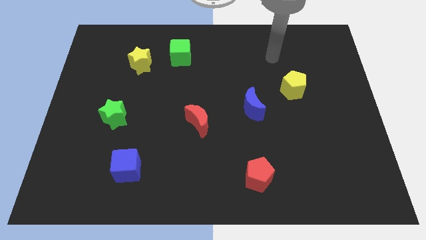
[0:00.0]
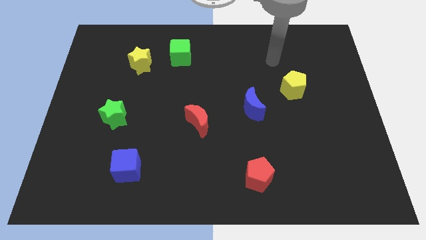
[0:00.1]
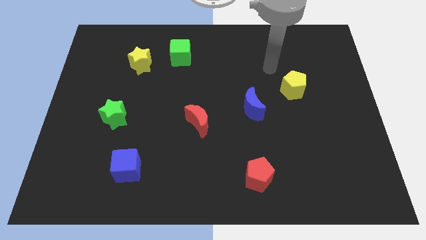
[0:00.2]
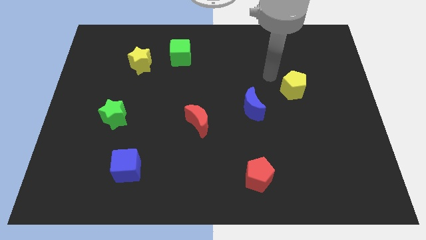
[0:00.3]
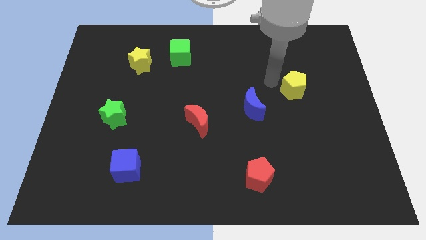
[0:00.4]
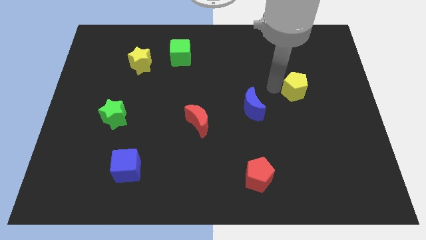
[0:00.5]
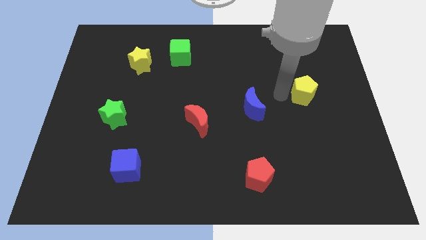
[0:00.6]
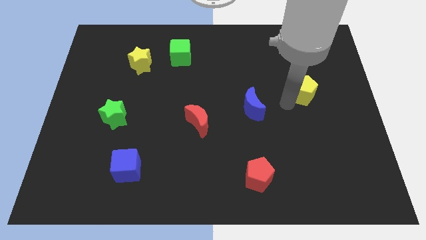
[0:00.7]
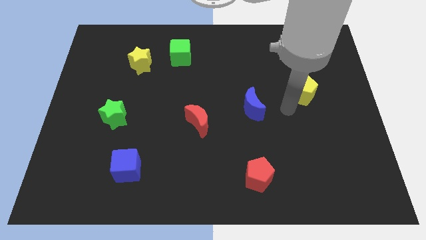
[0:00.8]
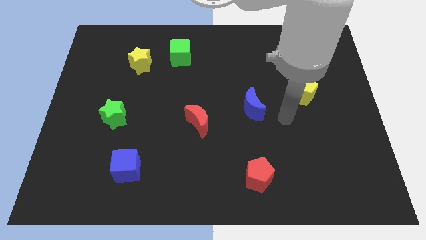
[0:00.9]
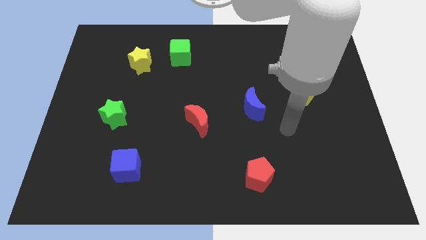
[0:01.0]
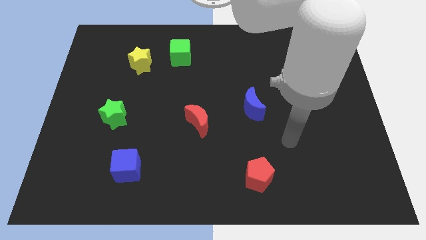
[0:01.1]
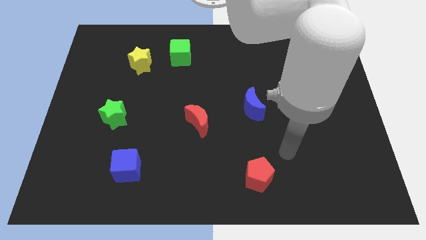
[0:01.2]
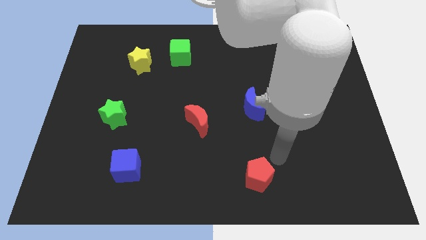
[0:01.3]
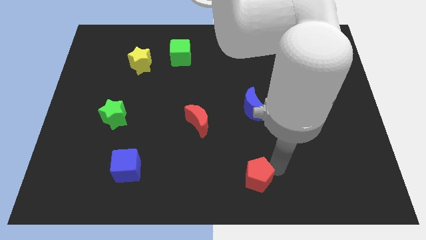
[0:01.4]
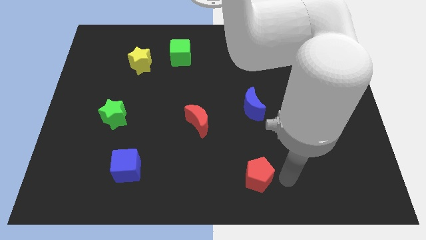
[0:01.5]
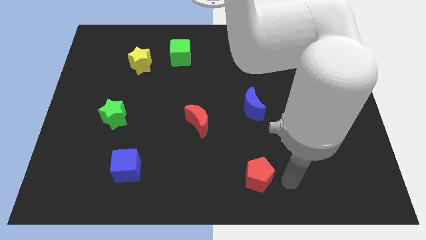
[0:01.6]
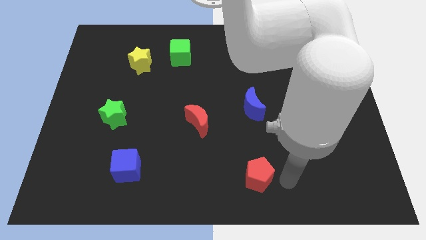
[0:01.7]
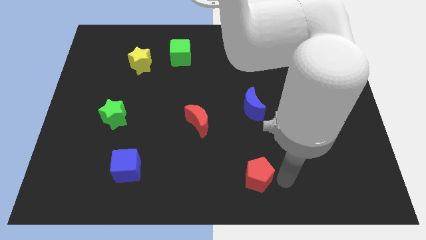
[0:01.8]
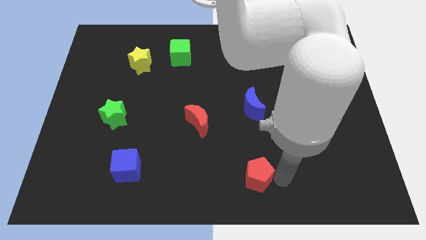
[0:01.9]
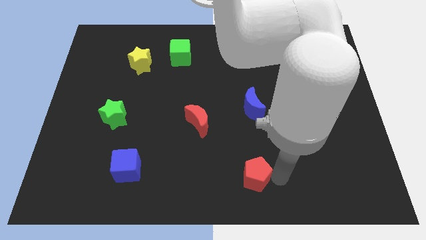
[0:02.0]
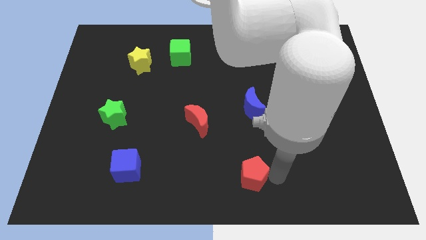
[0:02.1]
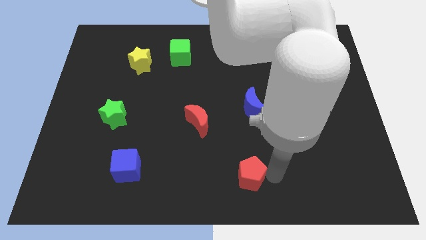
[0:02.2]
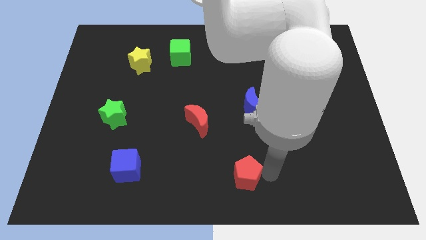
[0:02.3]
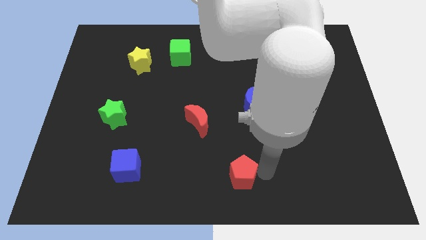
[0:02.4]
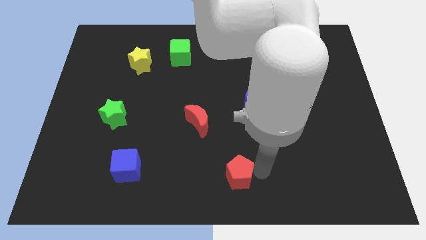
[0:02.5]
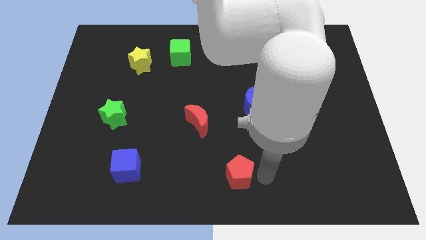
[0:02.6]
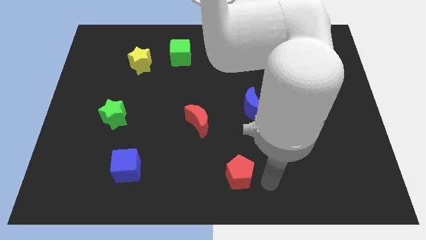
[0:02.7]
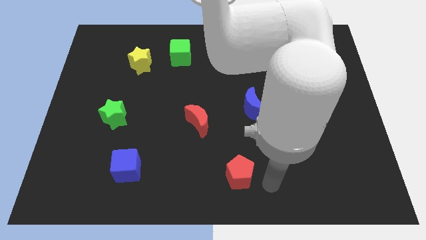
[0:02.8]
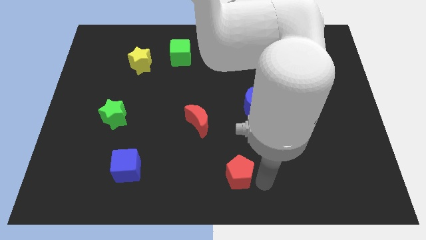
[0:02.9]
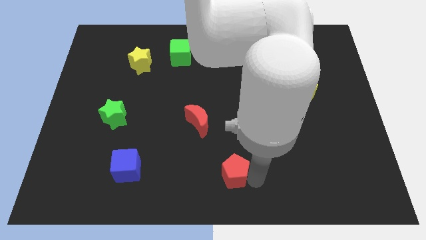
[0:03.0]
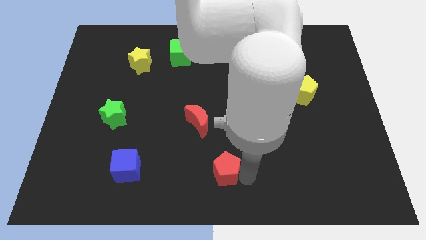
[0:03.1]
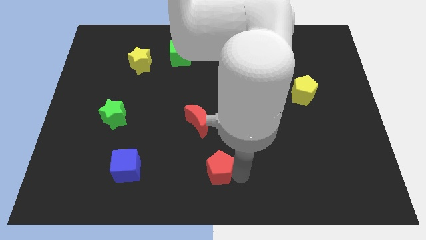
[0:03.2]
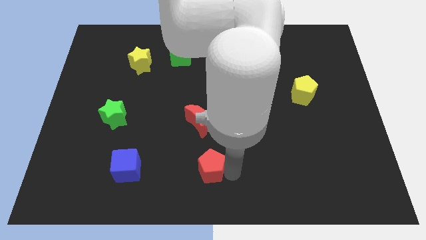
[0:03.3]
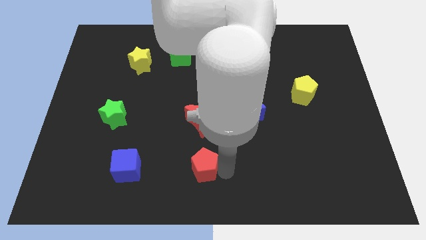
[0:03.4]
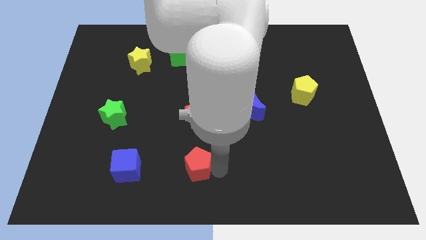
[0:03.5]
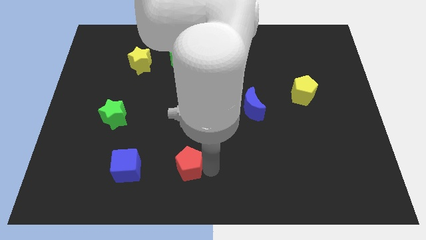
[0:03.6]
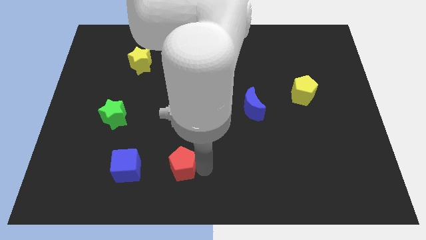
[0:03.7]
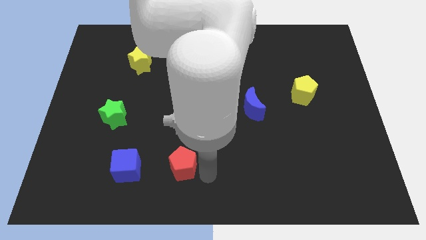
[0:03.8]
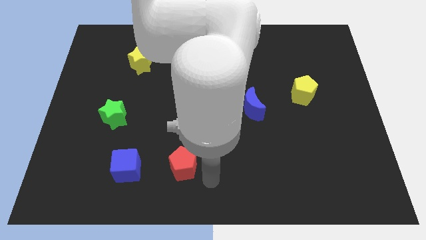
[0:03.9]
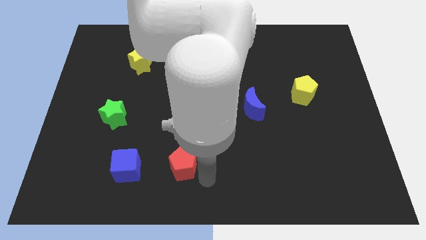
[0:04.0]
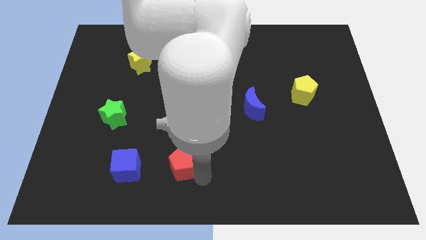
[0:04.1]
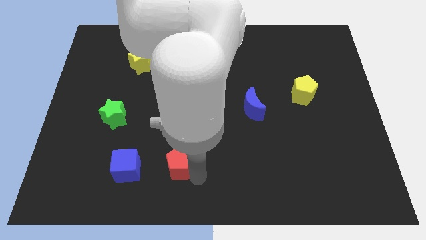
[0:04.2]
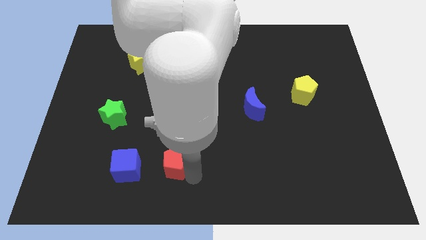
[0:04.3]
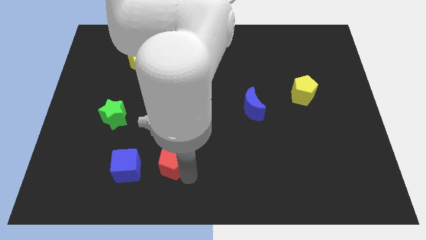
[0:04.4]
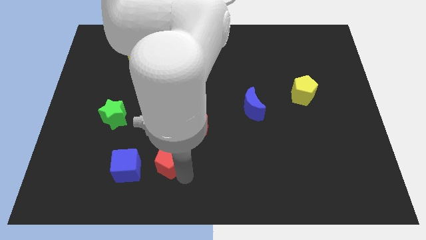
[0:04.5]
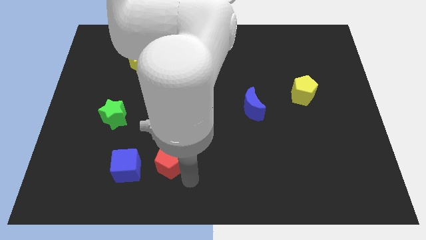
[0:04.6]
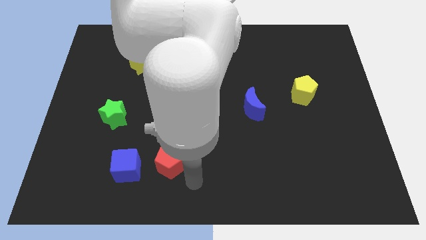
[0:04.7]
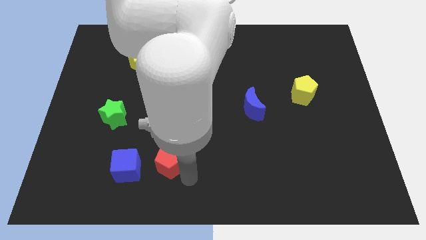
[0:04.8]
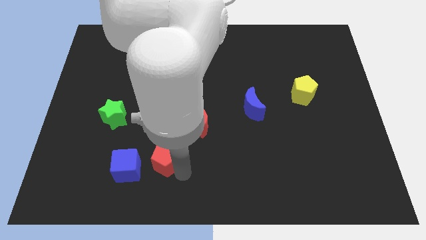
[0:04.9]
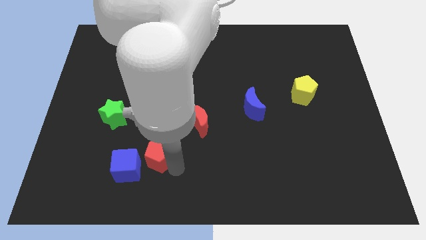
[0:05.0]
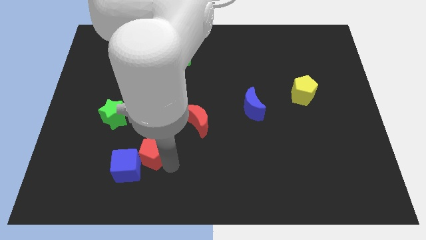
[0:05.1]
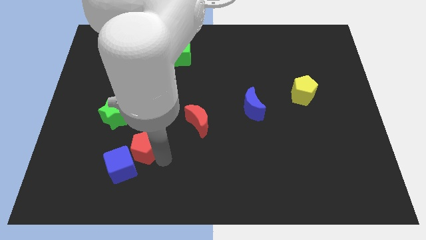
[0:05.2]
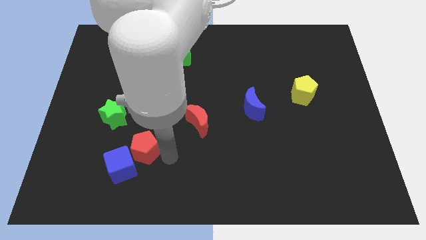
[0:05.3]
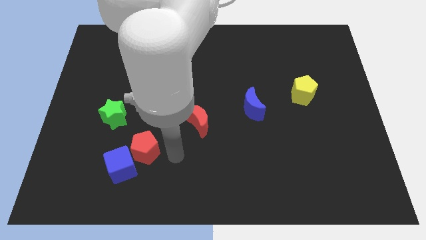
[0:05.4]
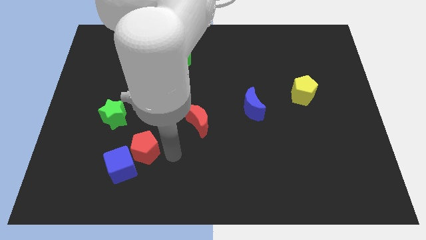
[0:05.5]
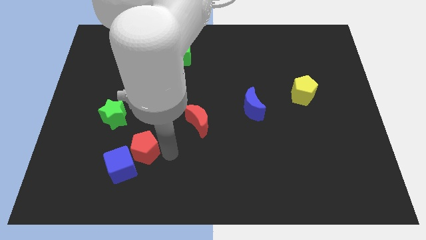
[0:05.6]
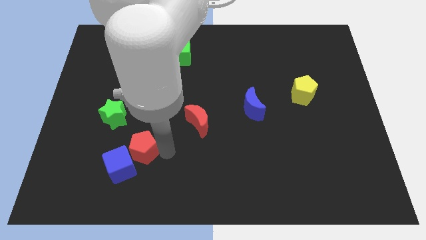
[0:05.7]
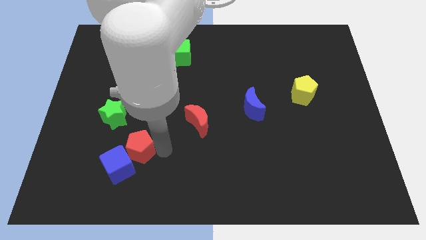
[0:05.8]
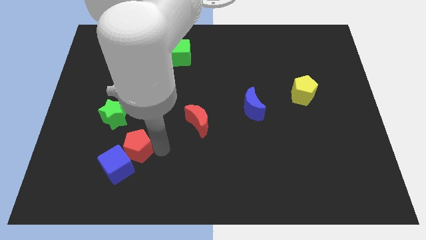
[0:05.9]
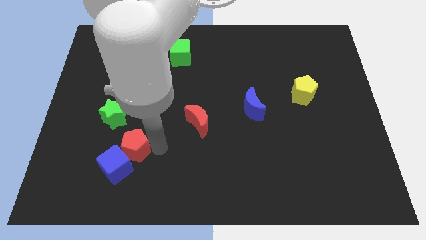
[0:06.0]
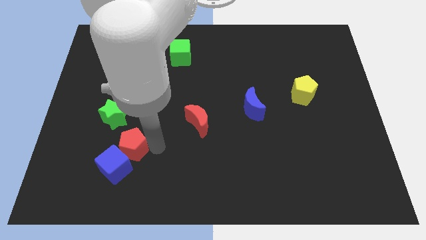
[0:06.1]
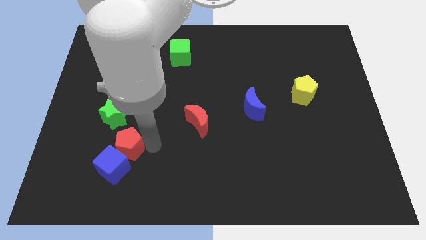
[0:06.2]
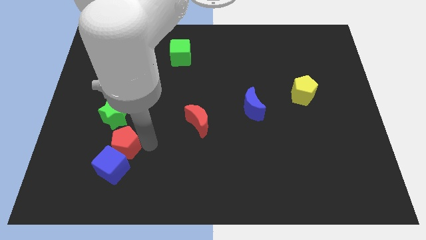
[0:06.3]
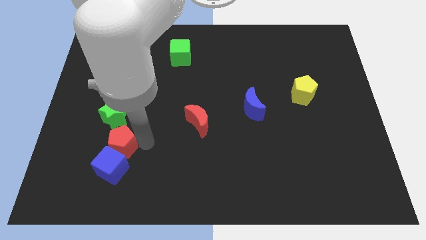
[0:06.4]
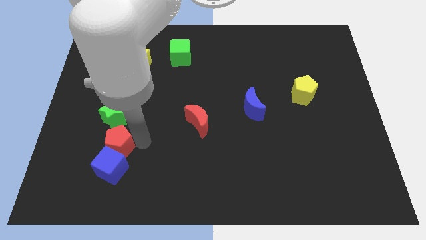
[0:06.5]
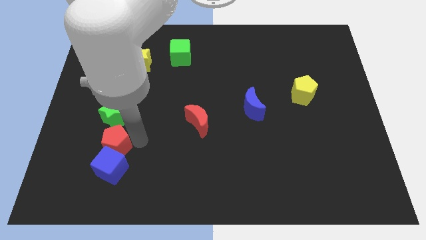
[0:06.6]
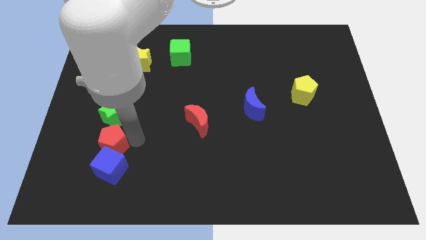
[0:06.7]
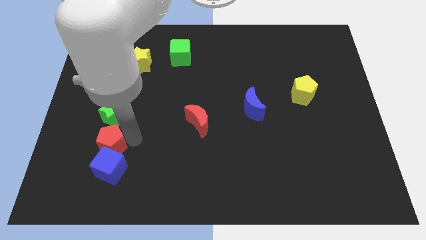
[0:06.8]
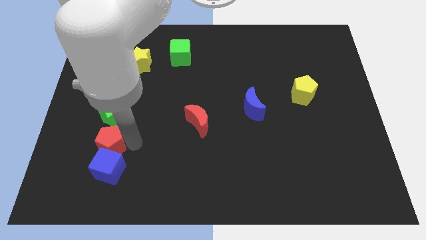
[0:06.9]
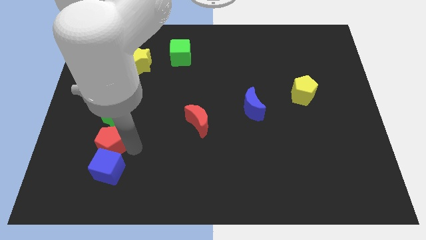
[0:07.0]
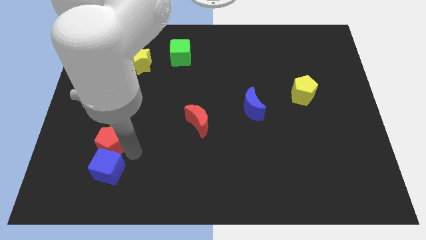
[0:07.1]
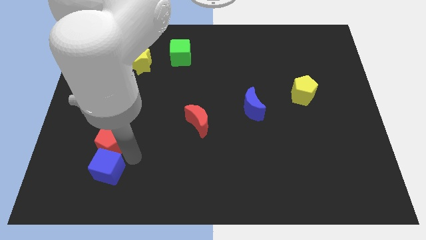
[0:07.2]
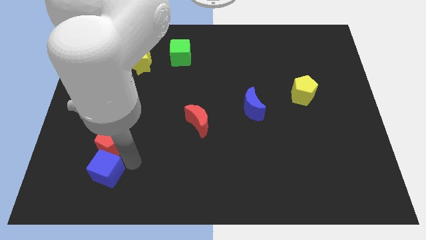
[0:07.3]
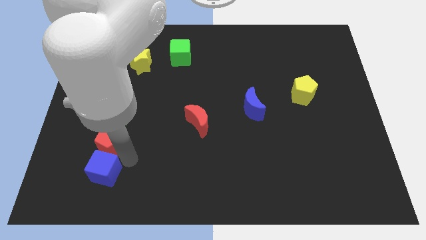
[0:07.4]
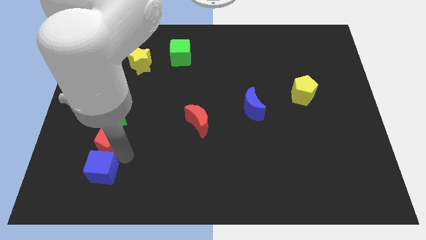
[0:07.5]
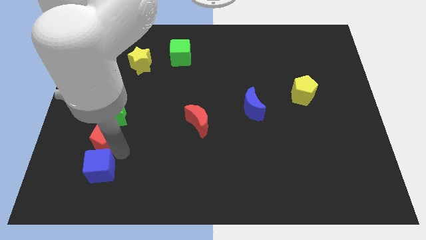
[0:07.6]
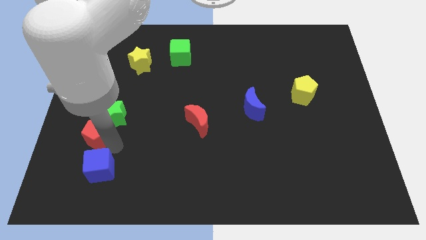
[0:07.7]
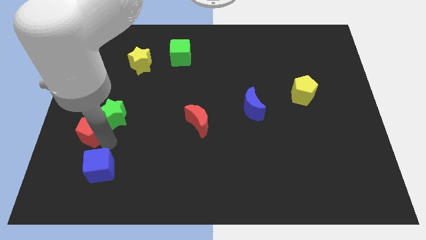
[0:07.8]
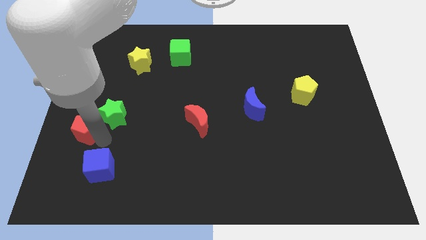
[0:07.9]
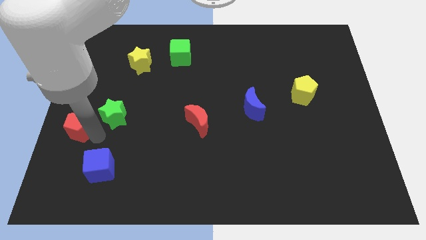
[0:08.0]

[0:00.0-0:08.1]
put the red pentagon to the left side
